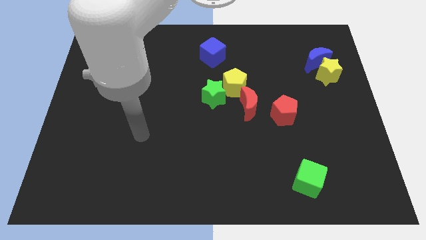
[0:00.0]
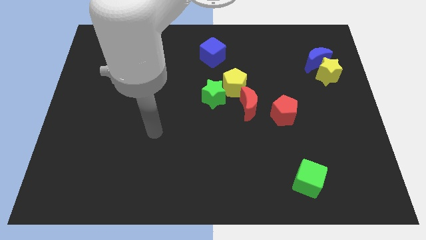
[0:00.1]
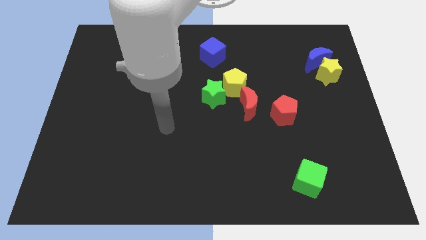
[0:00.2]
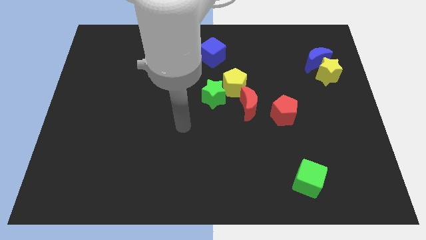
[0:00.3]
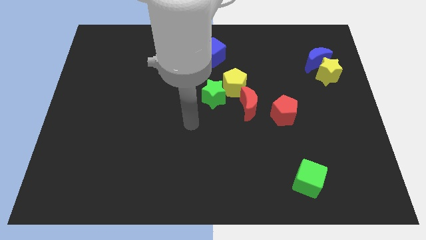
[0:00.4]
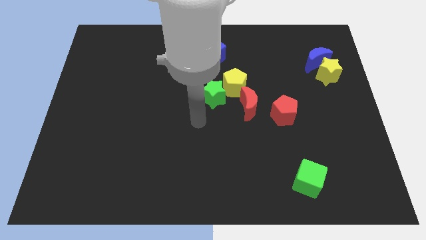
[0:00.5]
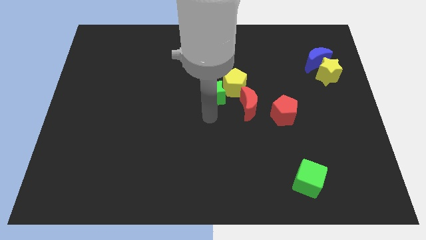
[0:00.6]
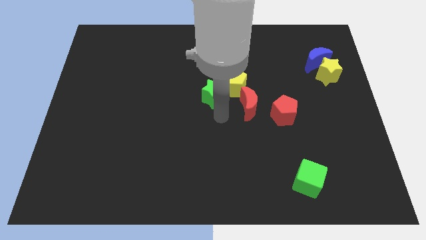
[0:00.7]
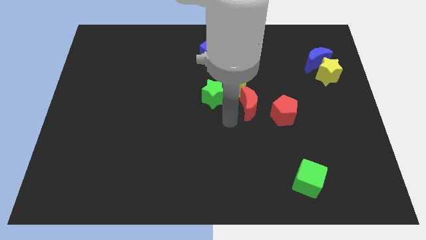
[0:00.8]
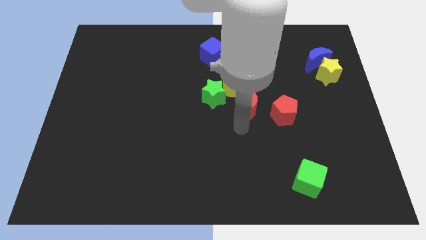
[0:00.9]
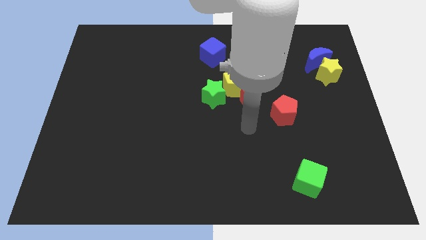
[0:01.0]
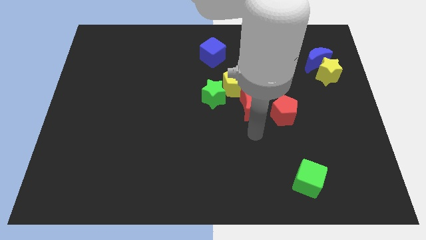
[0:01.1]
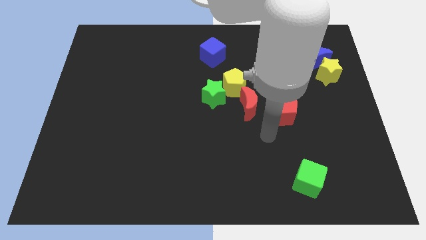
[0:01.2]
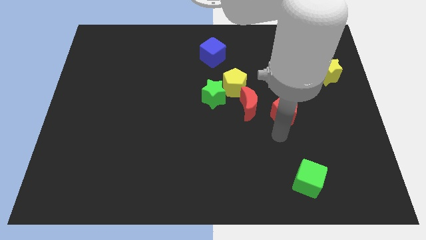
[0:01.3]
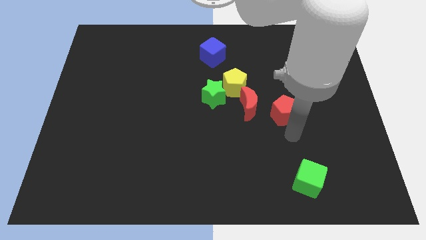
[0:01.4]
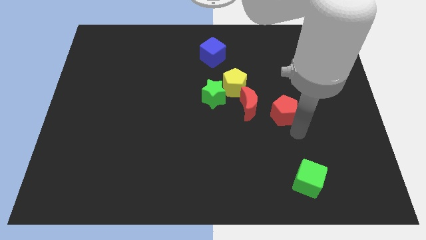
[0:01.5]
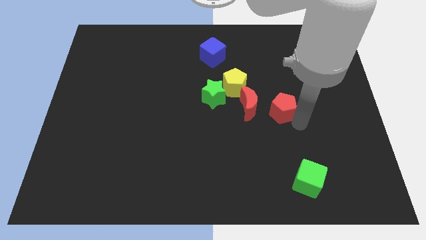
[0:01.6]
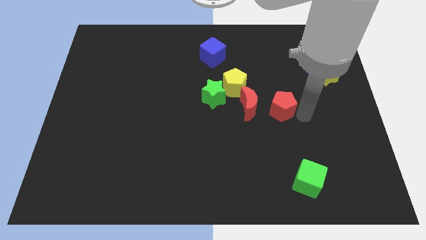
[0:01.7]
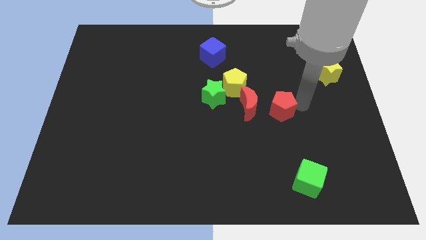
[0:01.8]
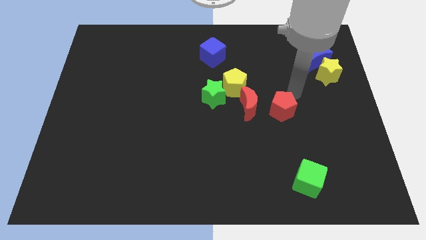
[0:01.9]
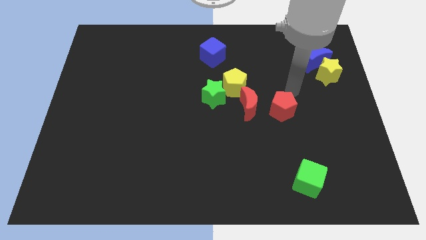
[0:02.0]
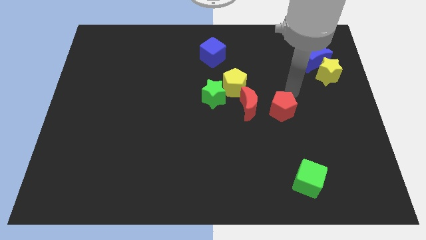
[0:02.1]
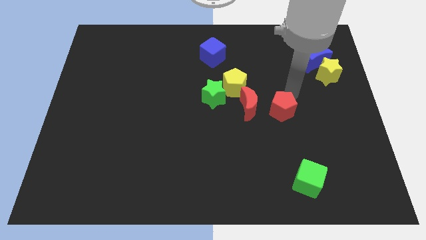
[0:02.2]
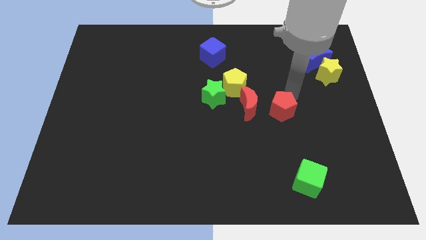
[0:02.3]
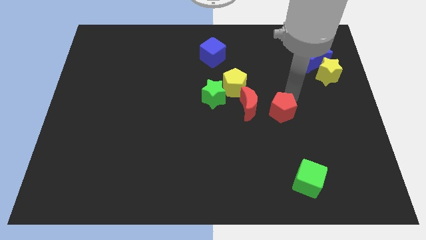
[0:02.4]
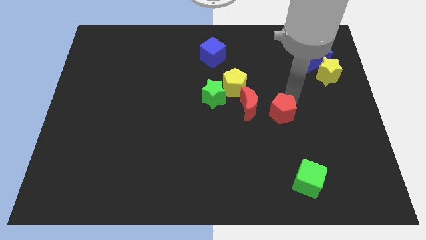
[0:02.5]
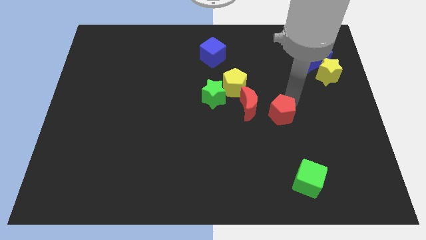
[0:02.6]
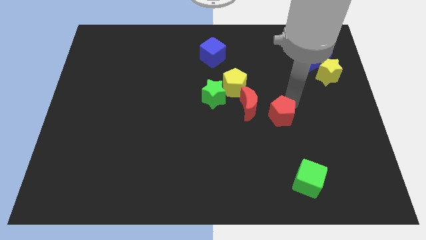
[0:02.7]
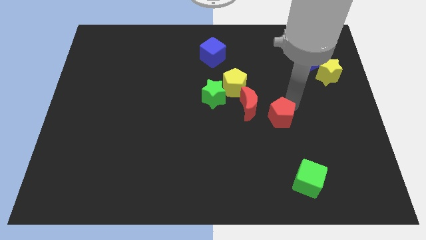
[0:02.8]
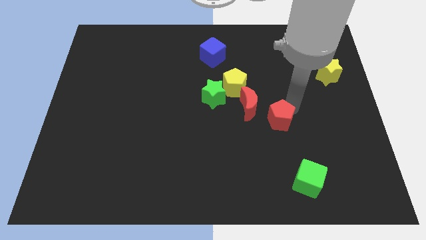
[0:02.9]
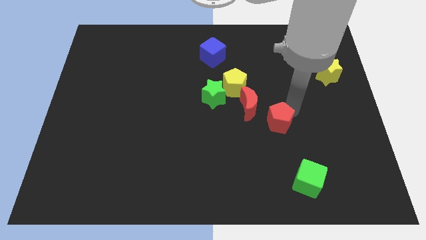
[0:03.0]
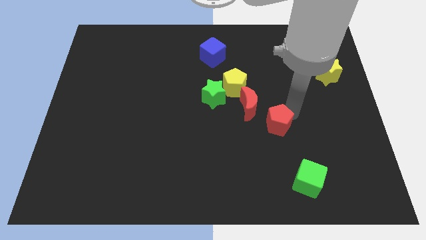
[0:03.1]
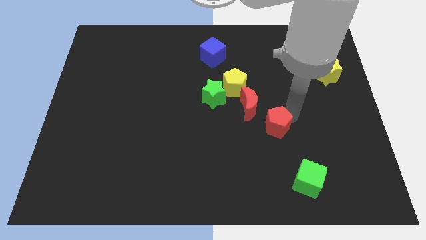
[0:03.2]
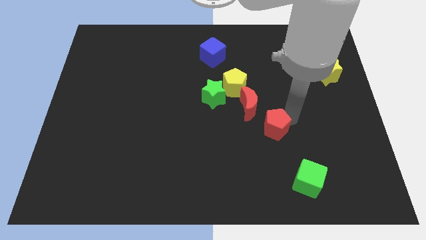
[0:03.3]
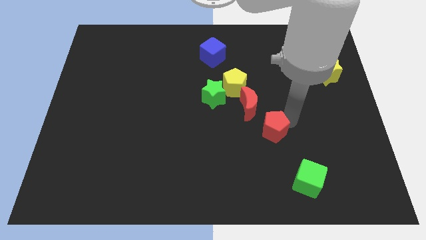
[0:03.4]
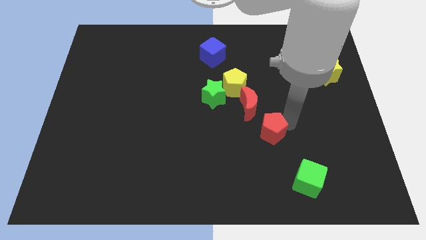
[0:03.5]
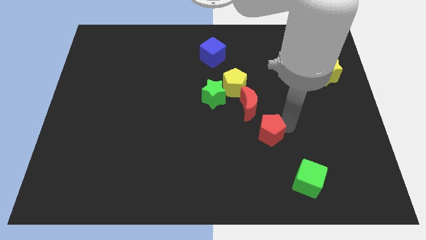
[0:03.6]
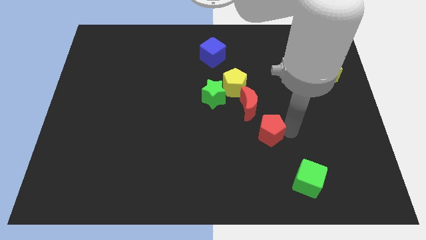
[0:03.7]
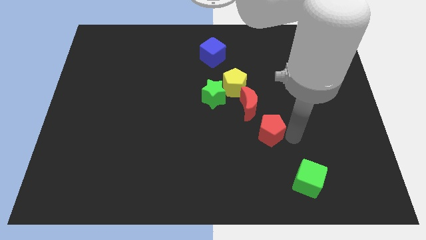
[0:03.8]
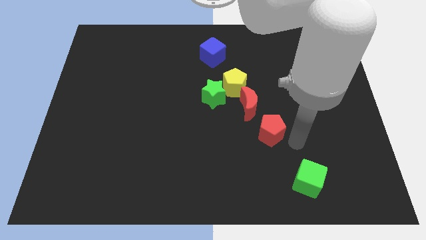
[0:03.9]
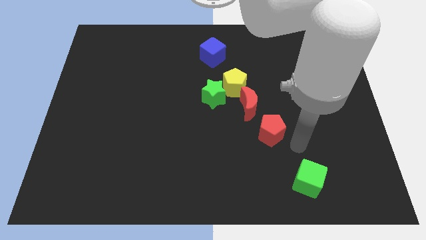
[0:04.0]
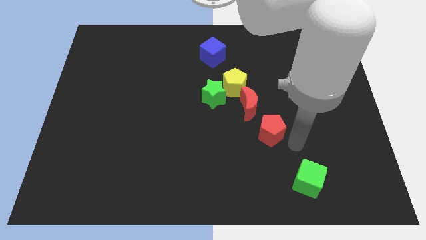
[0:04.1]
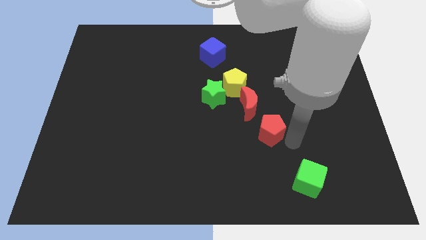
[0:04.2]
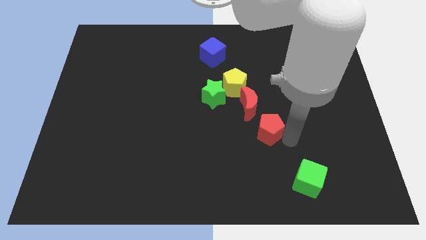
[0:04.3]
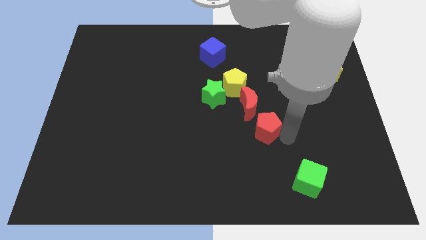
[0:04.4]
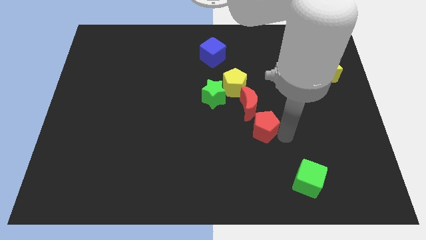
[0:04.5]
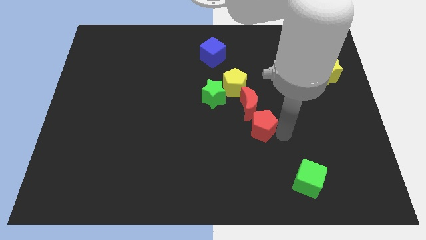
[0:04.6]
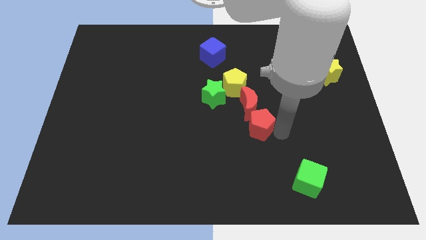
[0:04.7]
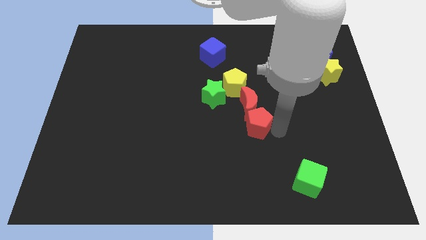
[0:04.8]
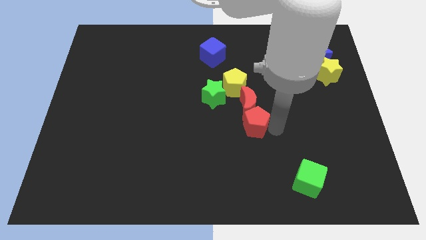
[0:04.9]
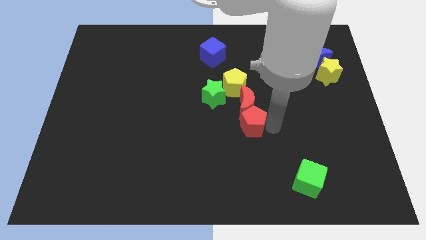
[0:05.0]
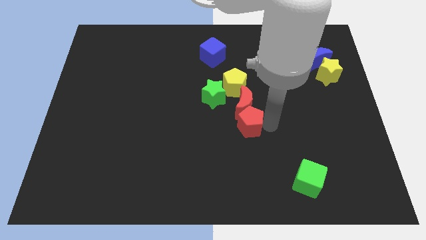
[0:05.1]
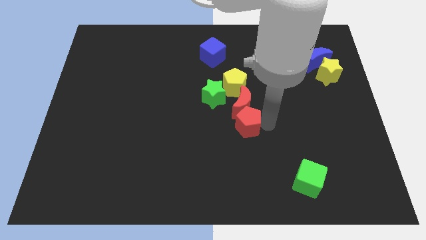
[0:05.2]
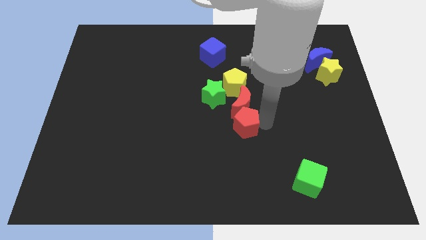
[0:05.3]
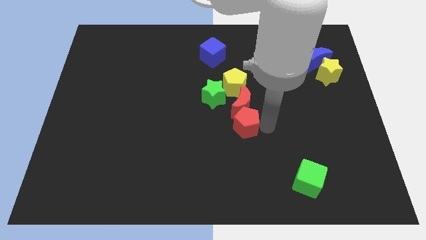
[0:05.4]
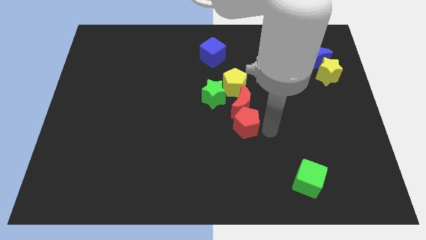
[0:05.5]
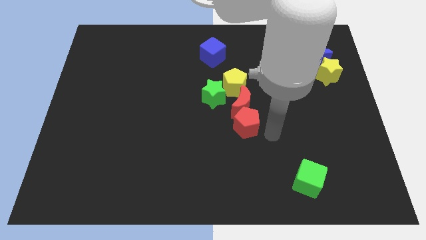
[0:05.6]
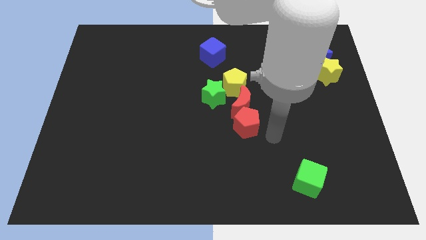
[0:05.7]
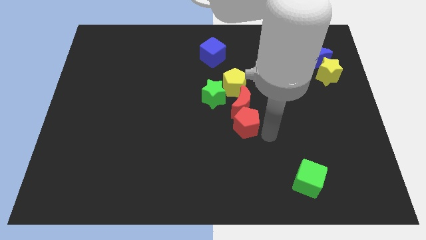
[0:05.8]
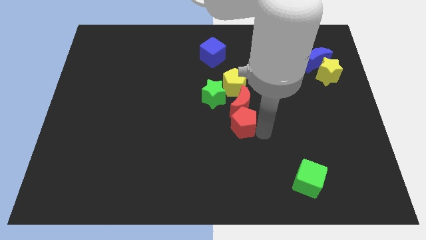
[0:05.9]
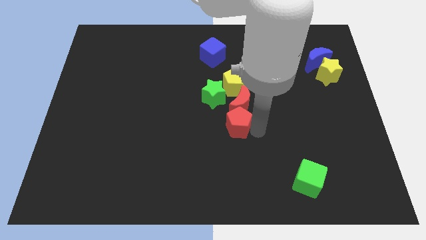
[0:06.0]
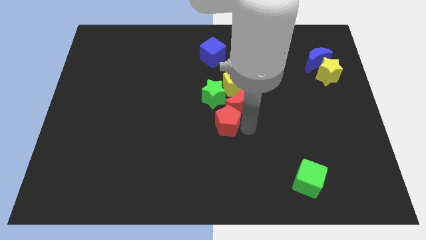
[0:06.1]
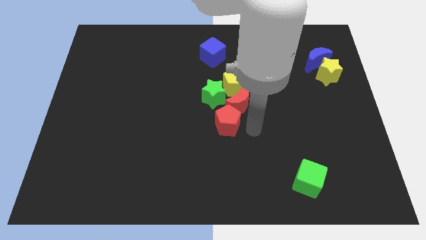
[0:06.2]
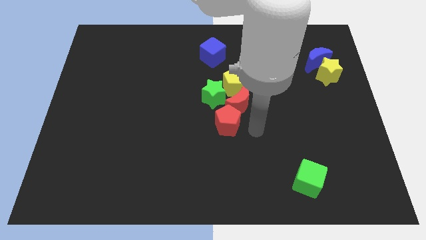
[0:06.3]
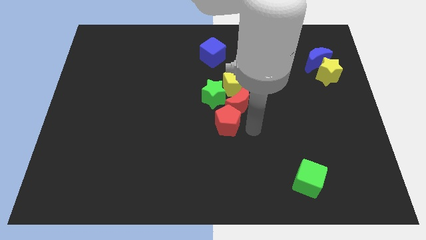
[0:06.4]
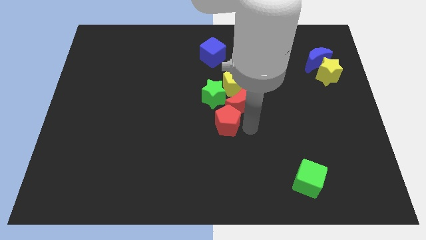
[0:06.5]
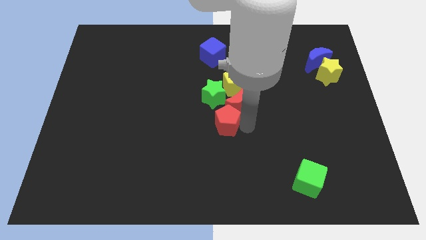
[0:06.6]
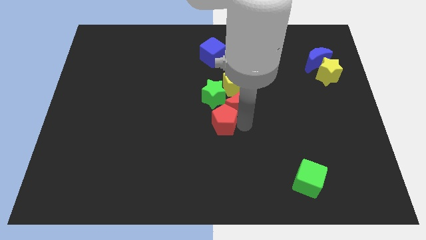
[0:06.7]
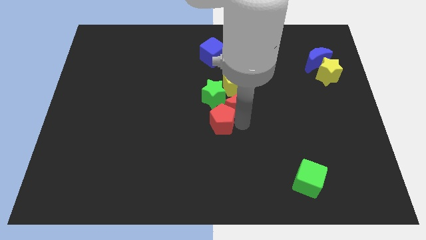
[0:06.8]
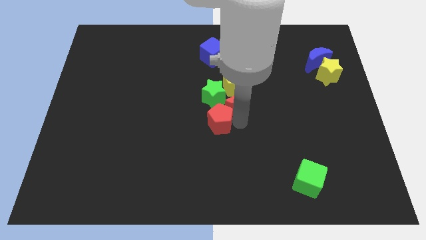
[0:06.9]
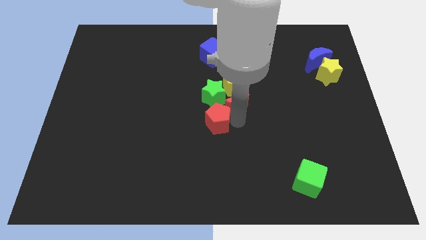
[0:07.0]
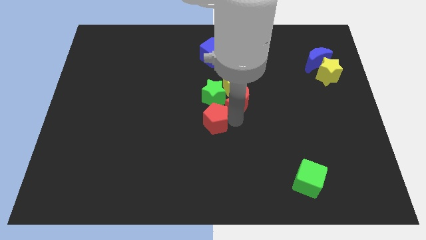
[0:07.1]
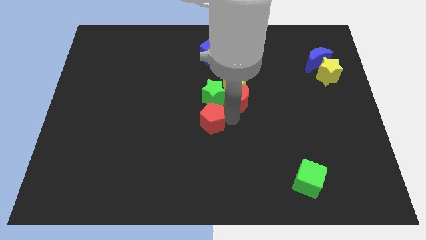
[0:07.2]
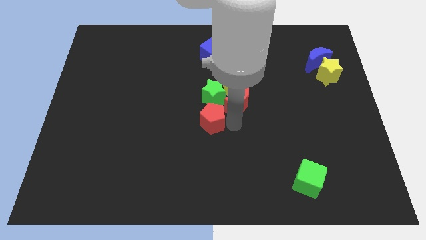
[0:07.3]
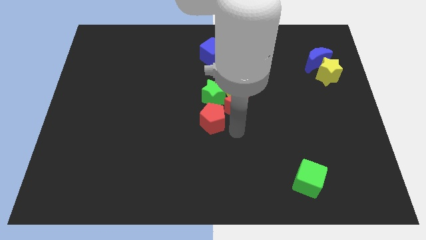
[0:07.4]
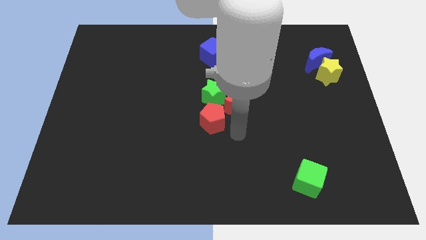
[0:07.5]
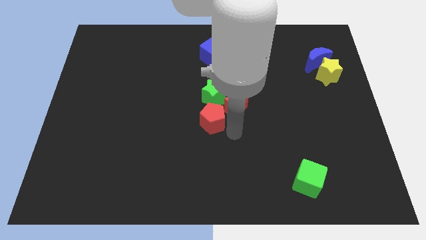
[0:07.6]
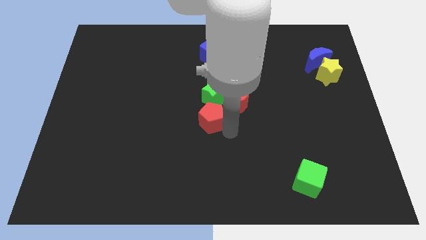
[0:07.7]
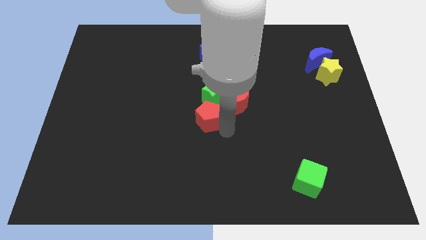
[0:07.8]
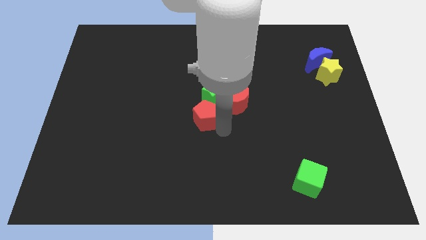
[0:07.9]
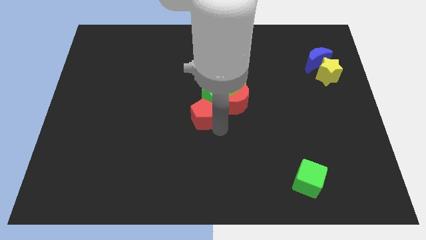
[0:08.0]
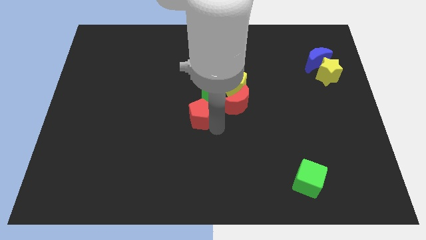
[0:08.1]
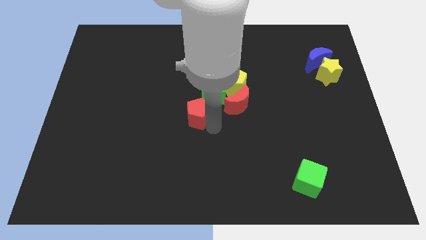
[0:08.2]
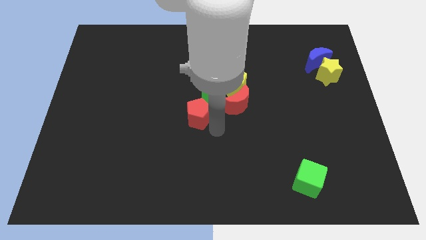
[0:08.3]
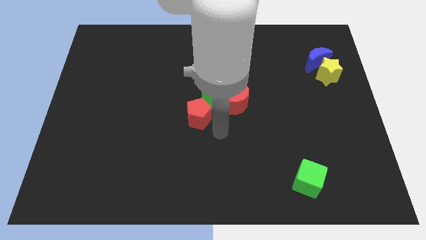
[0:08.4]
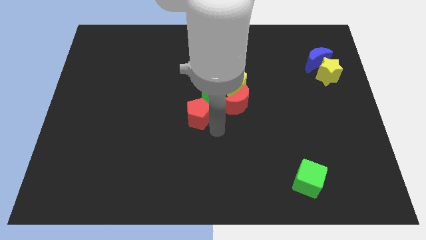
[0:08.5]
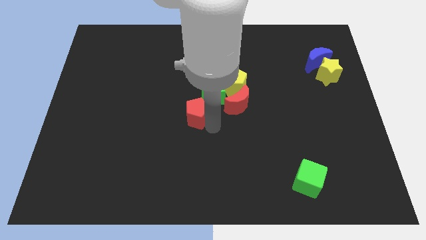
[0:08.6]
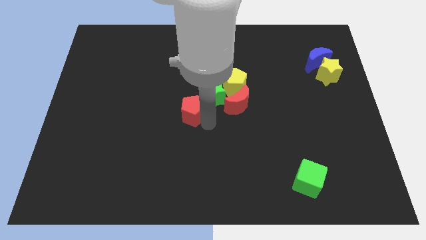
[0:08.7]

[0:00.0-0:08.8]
move the red pentagon just left of the green star
